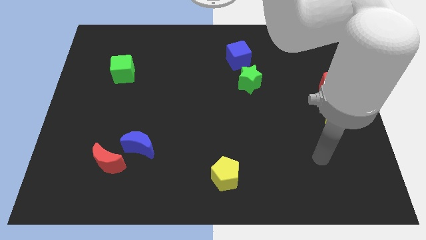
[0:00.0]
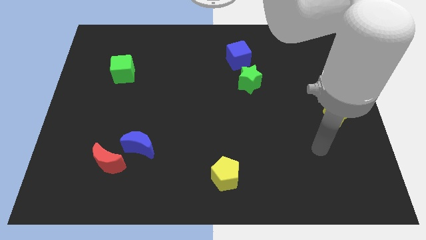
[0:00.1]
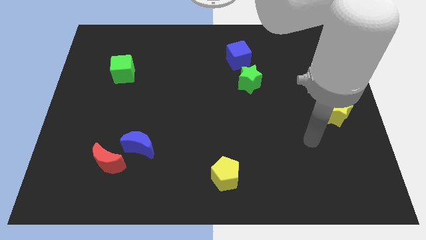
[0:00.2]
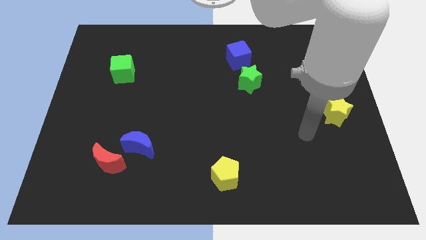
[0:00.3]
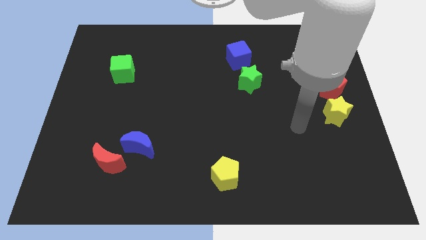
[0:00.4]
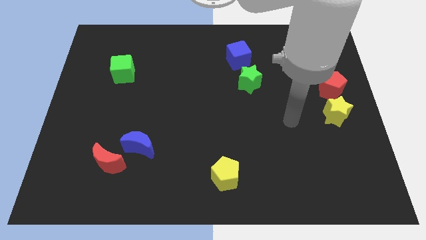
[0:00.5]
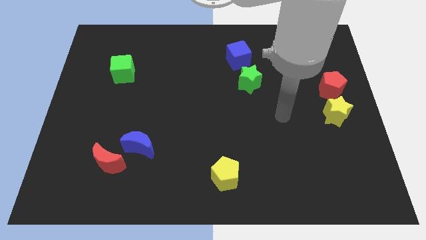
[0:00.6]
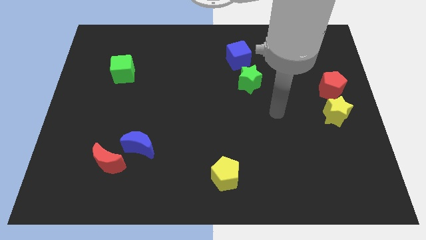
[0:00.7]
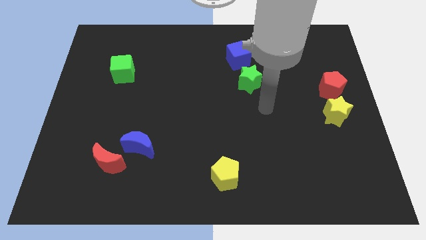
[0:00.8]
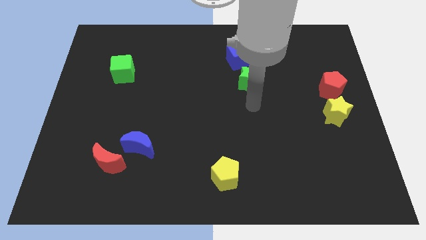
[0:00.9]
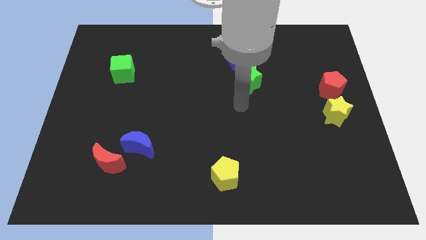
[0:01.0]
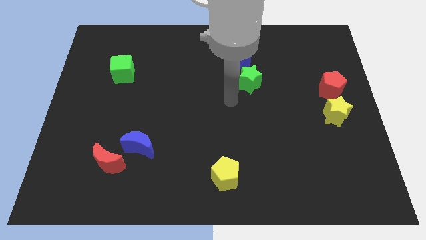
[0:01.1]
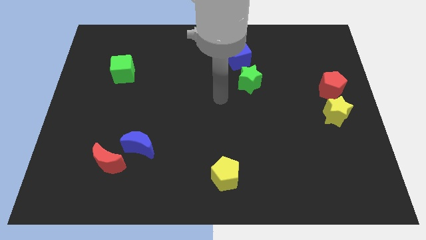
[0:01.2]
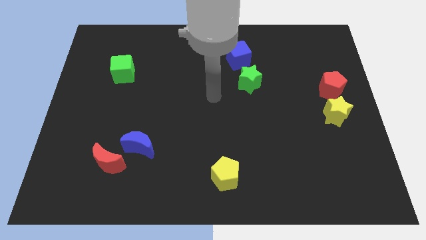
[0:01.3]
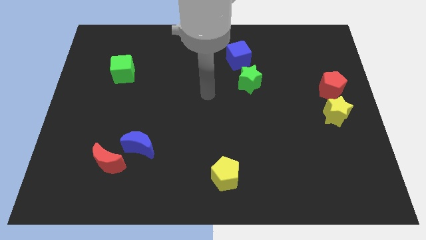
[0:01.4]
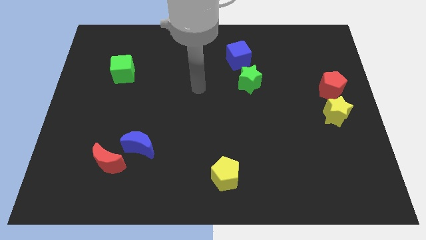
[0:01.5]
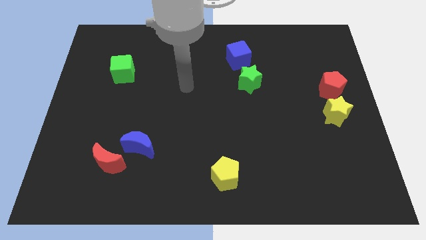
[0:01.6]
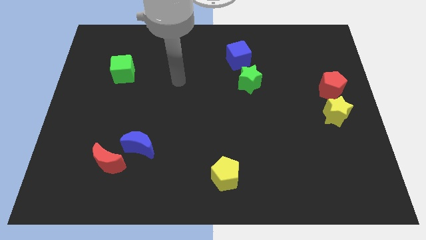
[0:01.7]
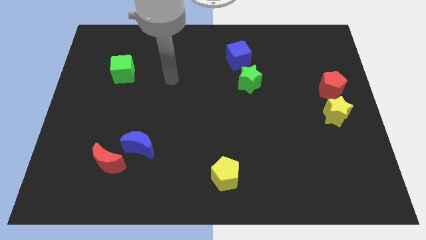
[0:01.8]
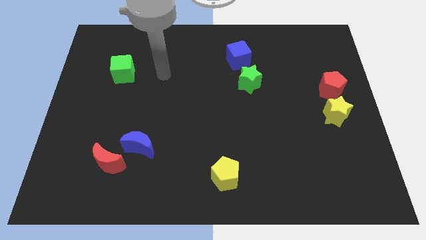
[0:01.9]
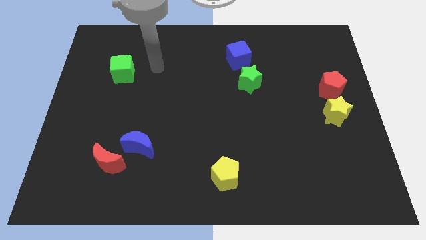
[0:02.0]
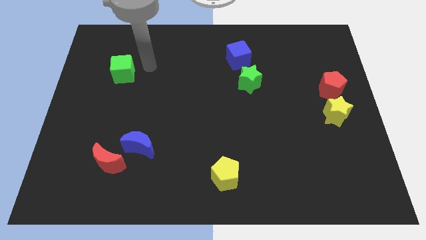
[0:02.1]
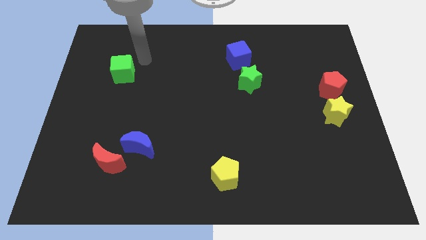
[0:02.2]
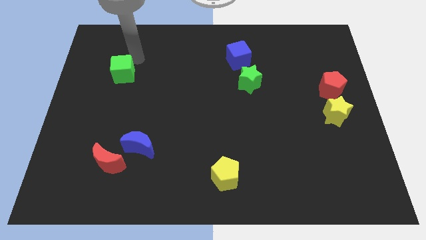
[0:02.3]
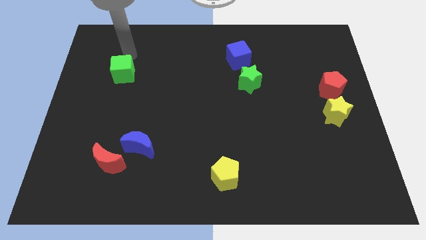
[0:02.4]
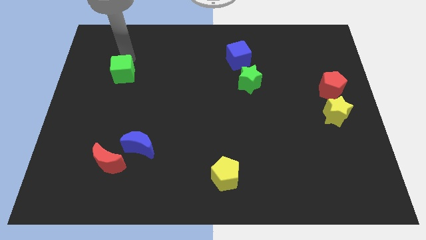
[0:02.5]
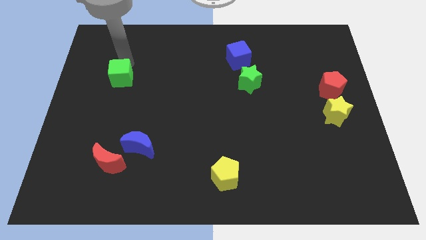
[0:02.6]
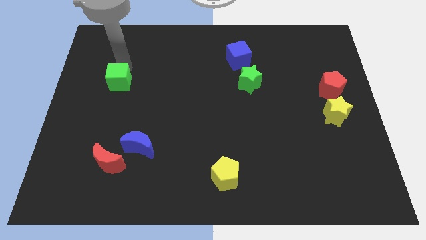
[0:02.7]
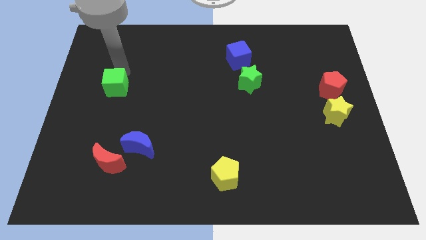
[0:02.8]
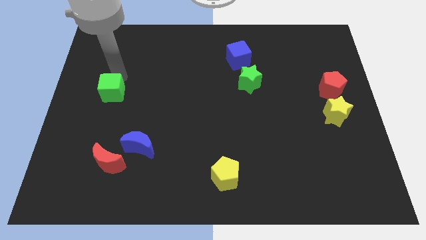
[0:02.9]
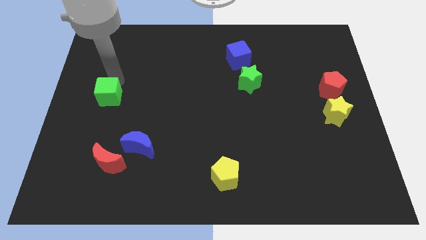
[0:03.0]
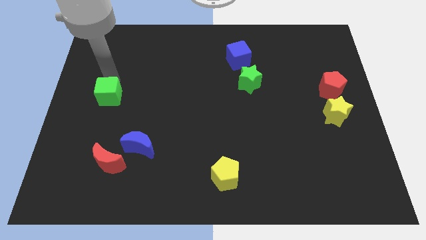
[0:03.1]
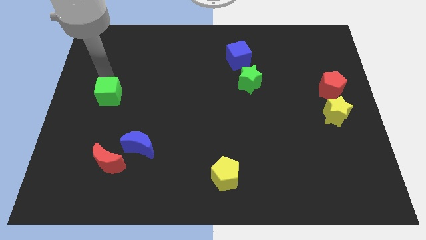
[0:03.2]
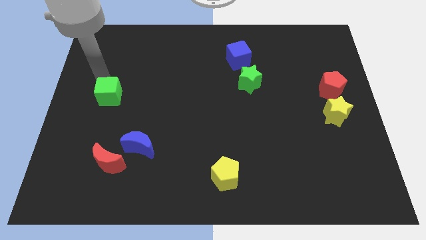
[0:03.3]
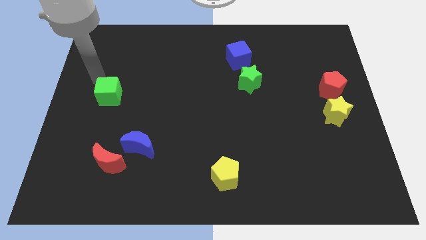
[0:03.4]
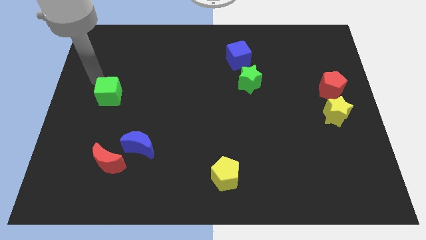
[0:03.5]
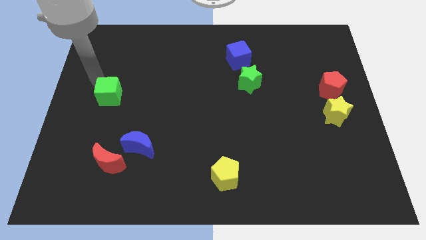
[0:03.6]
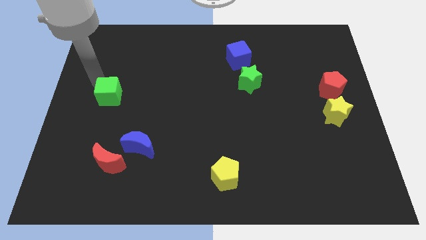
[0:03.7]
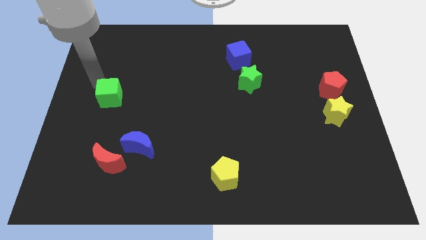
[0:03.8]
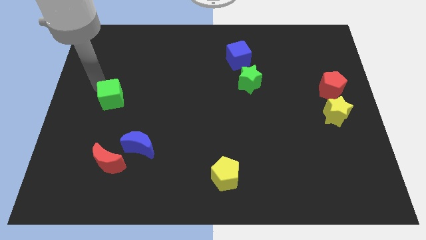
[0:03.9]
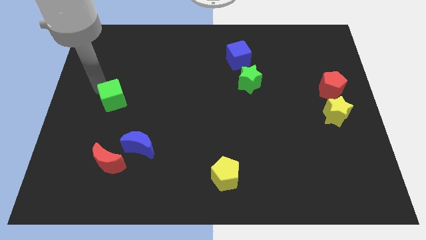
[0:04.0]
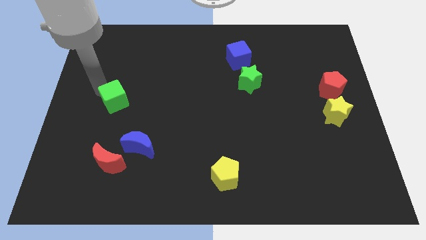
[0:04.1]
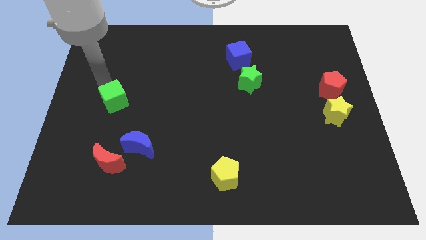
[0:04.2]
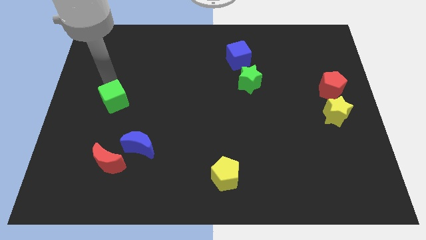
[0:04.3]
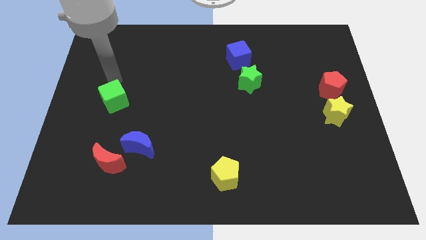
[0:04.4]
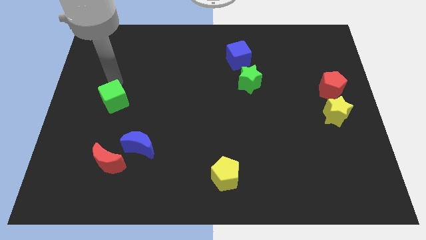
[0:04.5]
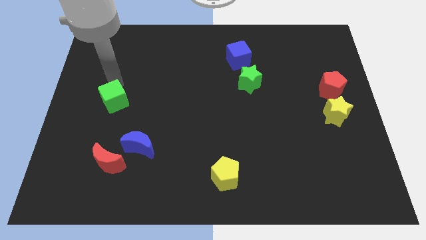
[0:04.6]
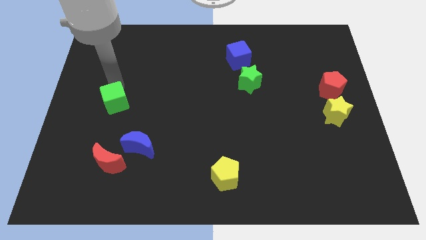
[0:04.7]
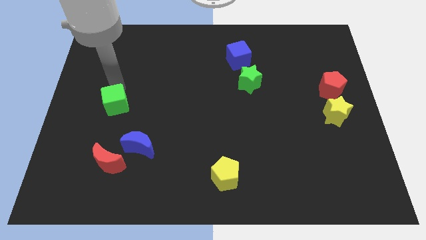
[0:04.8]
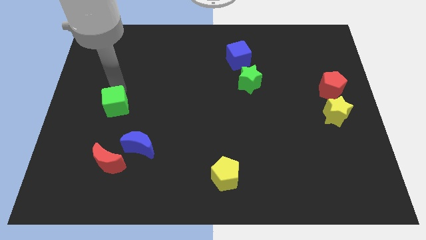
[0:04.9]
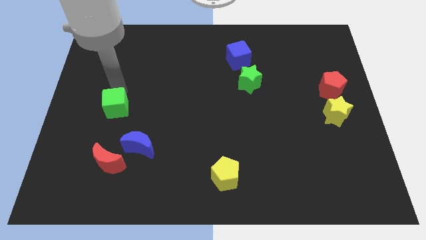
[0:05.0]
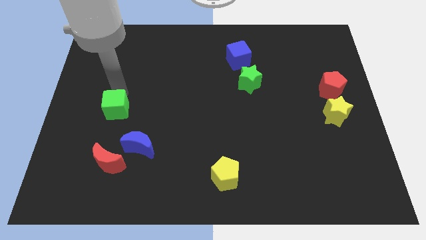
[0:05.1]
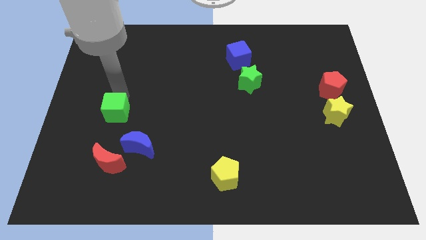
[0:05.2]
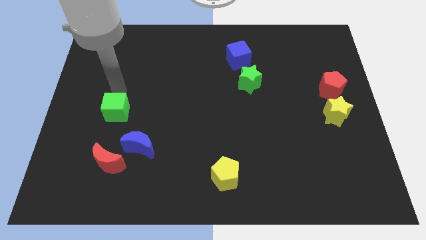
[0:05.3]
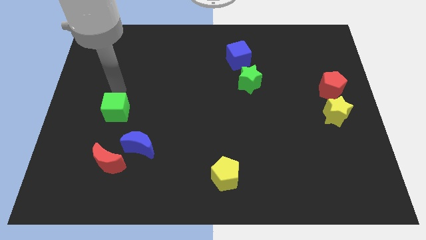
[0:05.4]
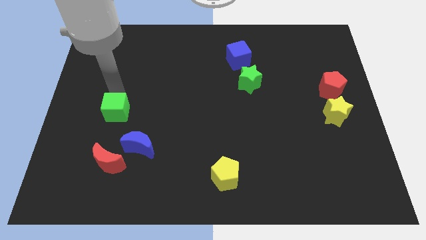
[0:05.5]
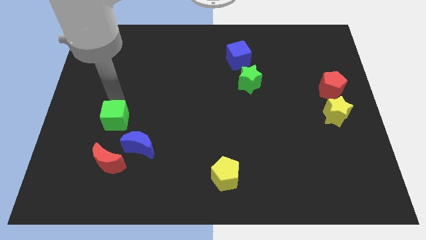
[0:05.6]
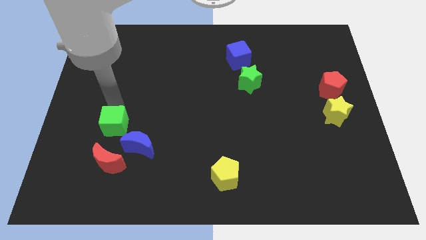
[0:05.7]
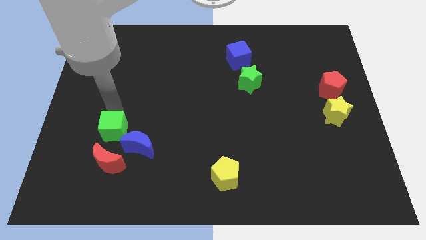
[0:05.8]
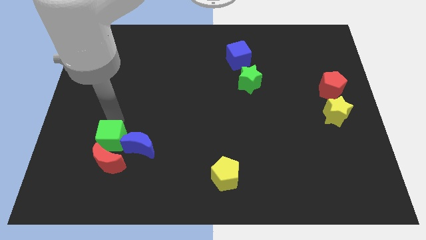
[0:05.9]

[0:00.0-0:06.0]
slide the green cube towards the red moon

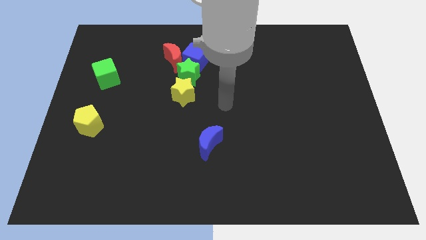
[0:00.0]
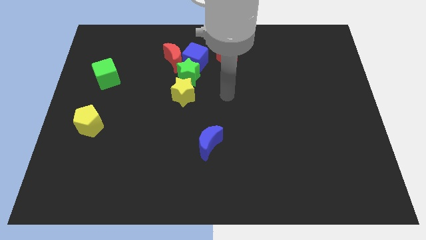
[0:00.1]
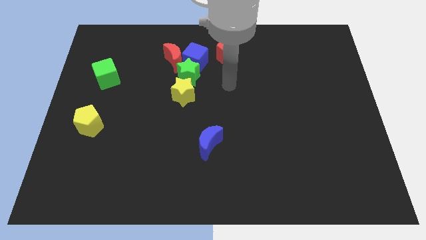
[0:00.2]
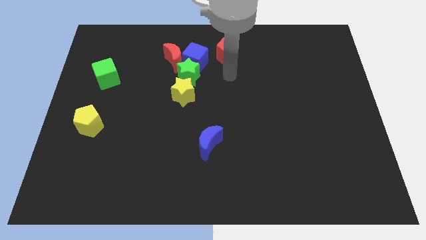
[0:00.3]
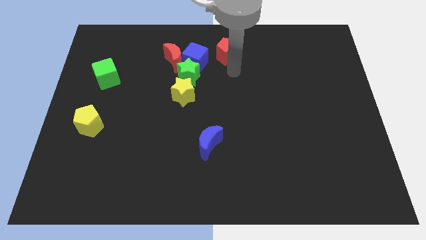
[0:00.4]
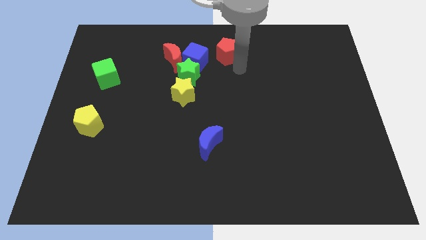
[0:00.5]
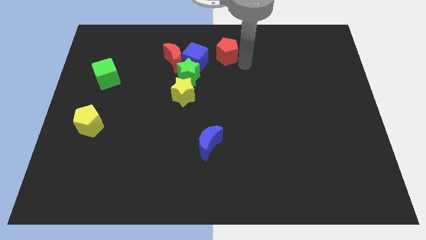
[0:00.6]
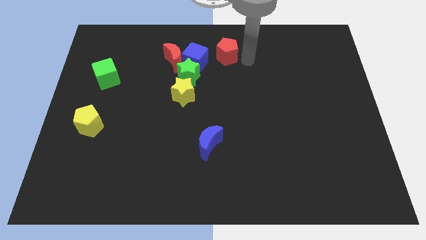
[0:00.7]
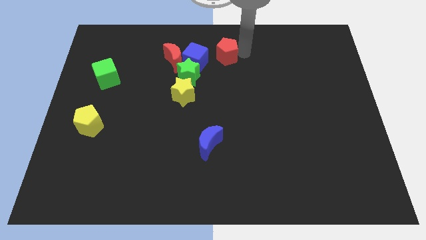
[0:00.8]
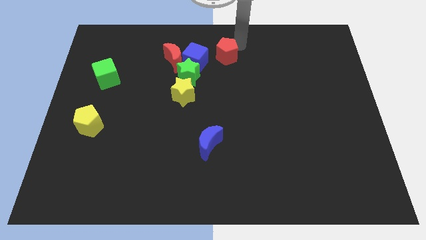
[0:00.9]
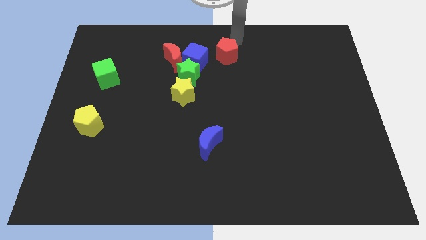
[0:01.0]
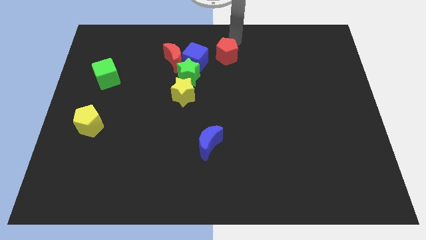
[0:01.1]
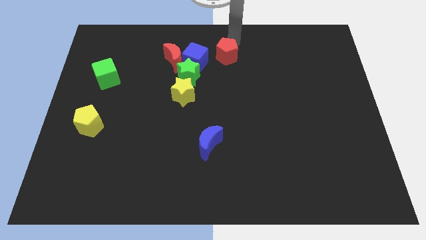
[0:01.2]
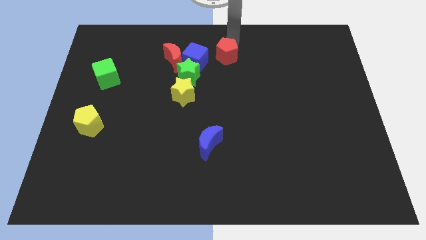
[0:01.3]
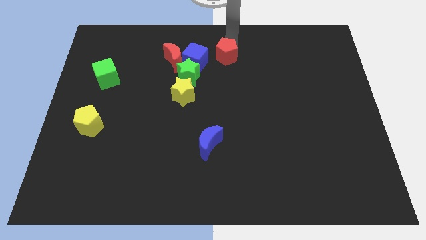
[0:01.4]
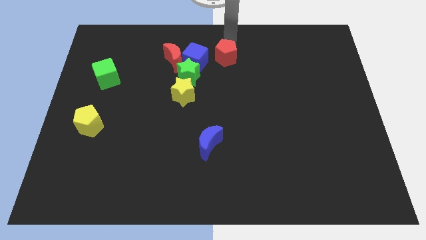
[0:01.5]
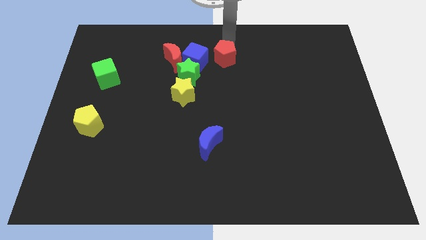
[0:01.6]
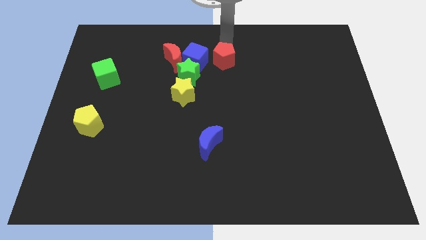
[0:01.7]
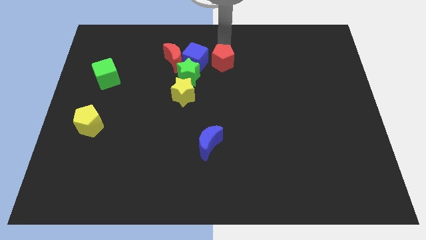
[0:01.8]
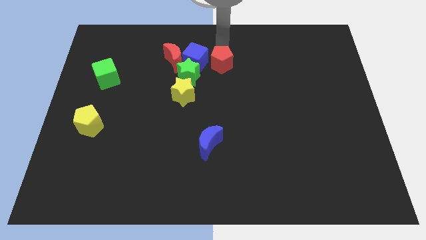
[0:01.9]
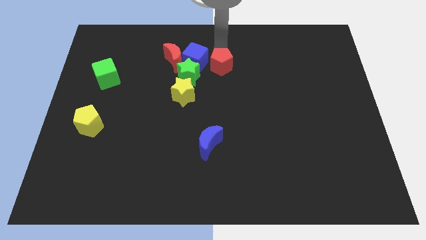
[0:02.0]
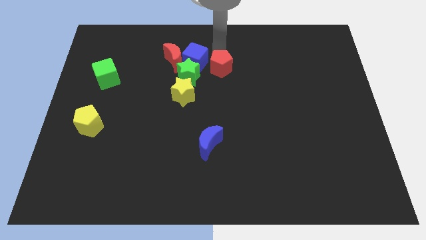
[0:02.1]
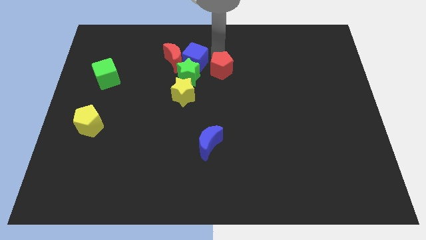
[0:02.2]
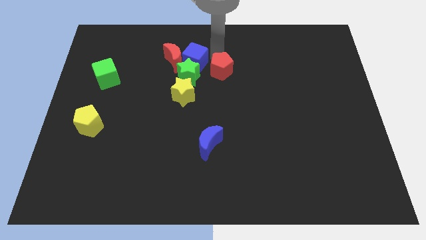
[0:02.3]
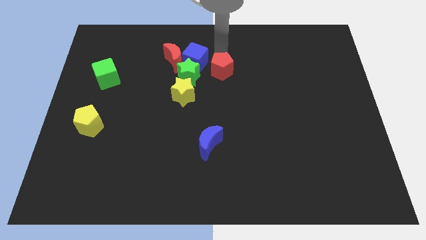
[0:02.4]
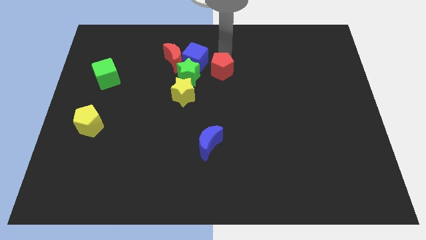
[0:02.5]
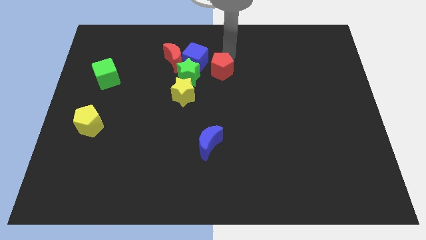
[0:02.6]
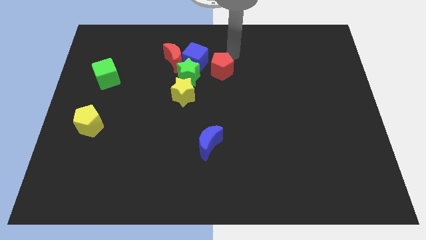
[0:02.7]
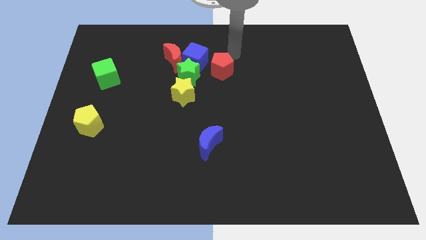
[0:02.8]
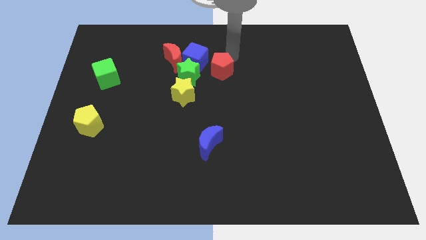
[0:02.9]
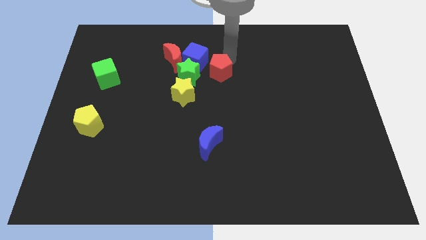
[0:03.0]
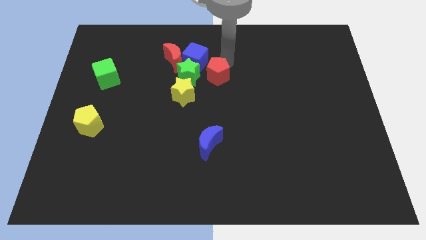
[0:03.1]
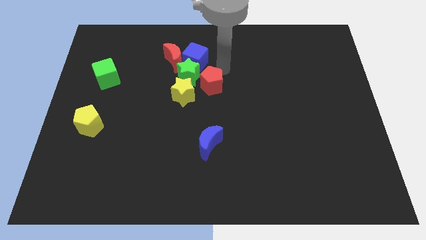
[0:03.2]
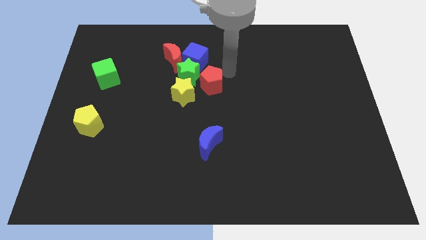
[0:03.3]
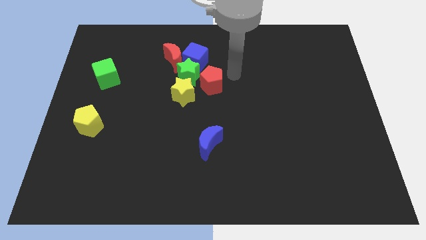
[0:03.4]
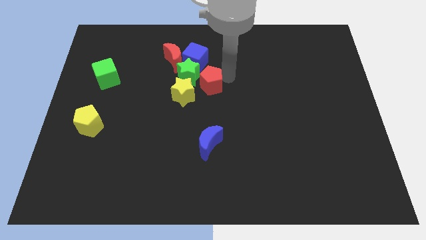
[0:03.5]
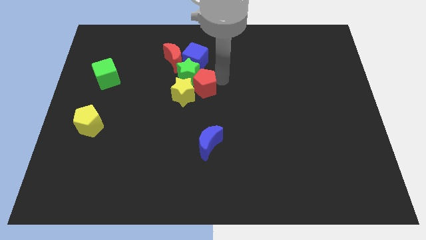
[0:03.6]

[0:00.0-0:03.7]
push the red pentagon next to the yellow star
